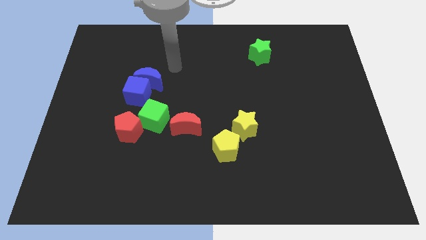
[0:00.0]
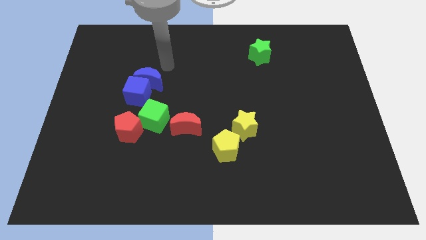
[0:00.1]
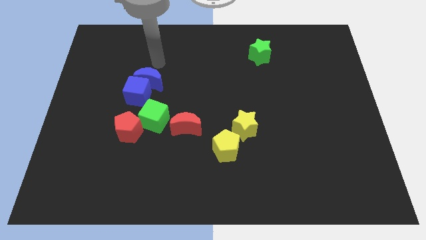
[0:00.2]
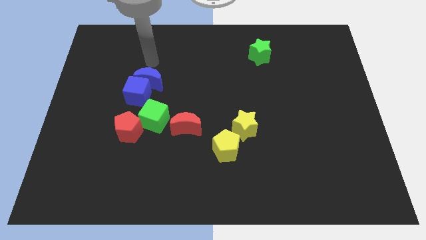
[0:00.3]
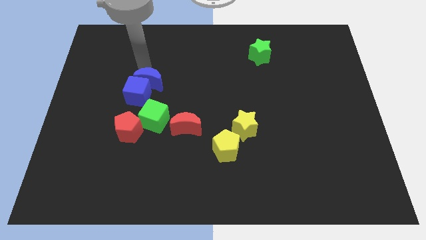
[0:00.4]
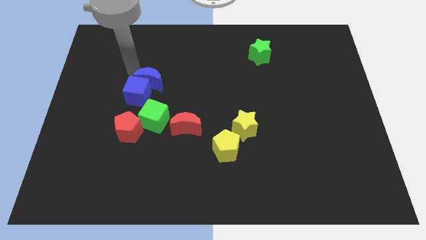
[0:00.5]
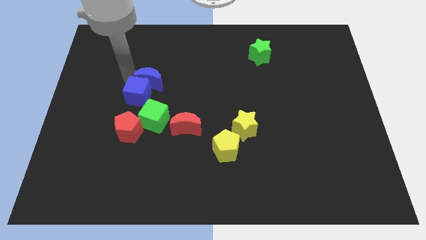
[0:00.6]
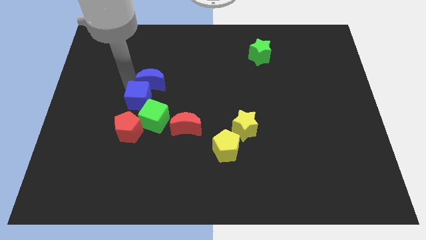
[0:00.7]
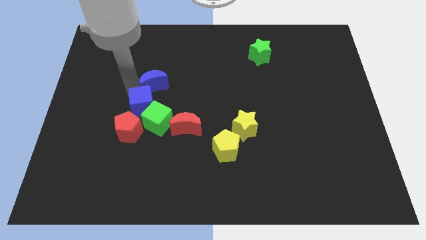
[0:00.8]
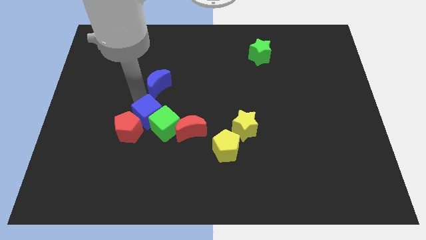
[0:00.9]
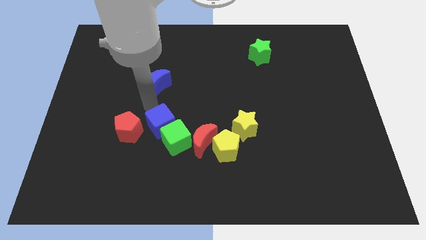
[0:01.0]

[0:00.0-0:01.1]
pull the blue moon apart from the blue cube

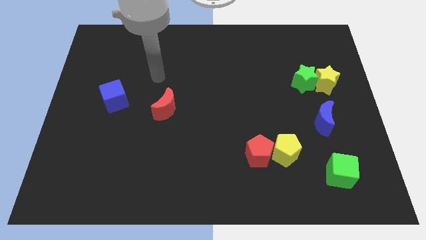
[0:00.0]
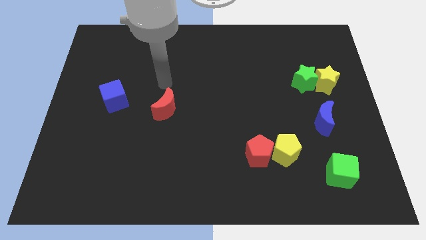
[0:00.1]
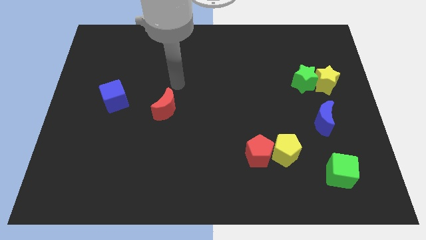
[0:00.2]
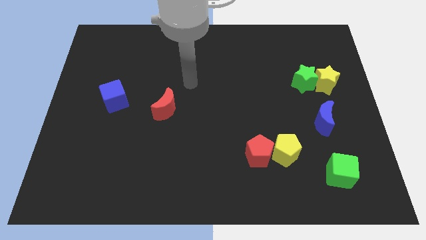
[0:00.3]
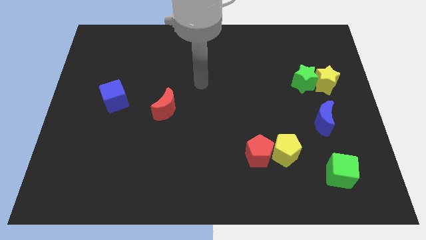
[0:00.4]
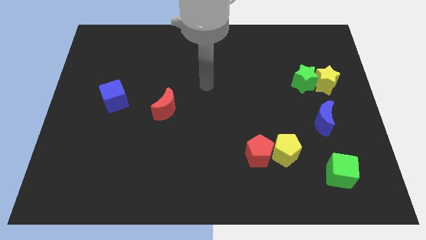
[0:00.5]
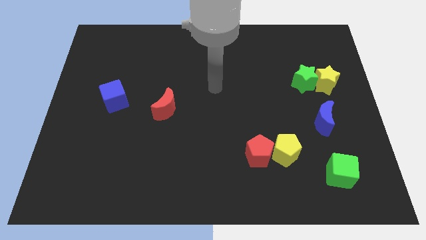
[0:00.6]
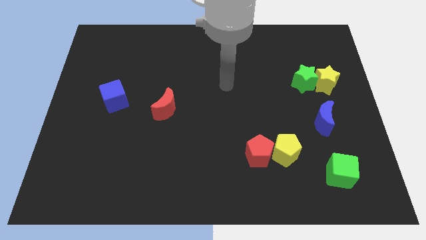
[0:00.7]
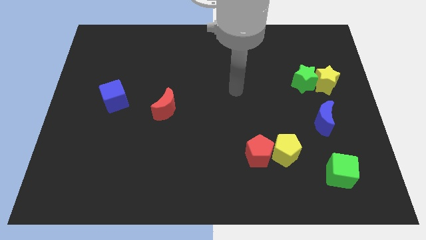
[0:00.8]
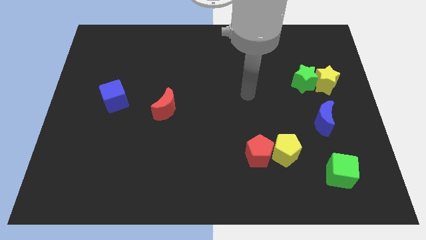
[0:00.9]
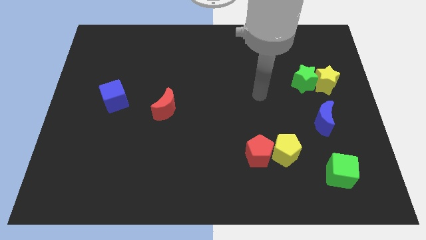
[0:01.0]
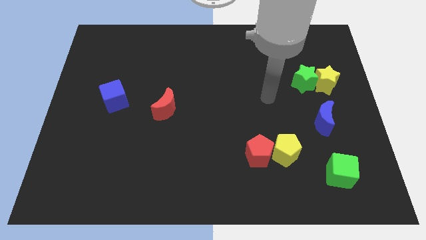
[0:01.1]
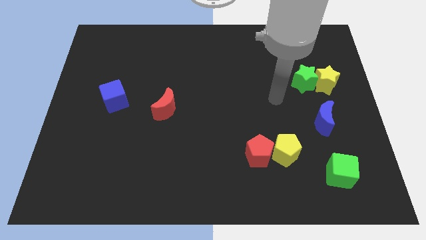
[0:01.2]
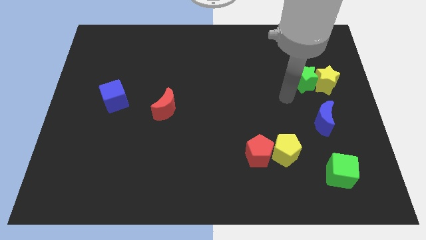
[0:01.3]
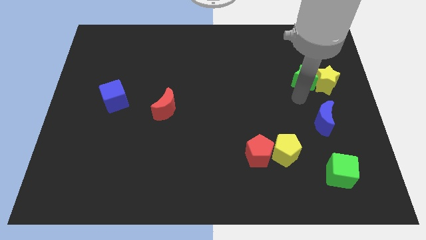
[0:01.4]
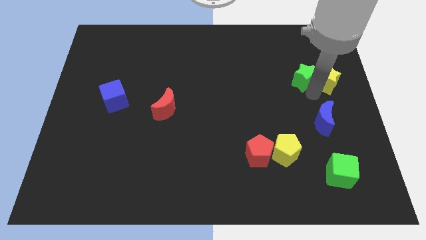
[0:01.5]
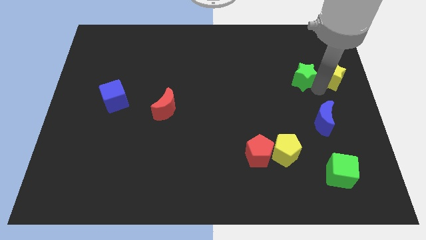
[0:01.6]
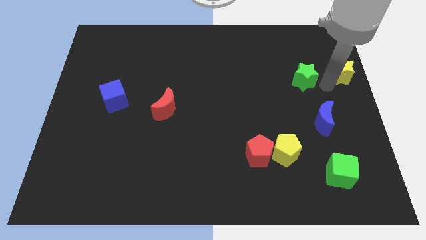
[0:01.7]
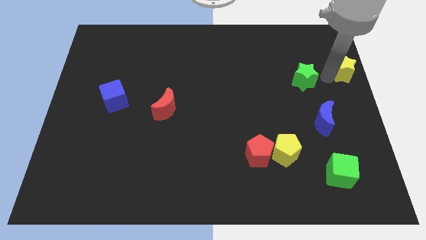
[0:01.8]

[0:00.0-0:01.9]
separate the green star from the yellow star

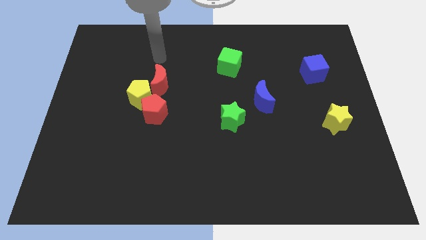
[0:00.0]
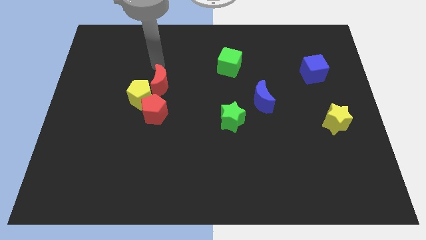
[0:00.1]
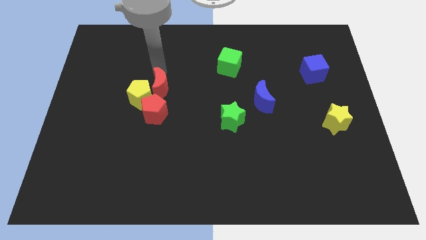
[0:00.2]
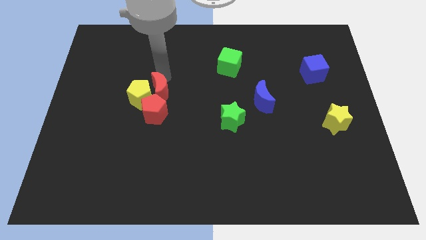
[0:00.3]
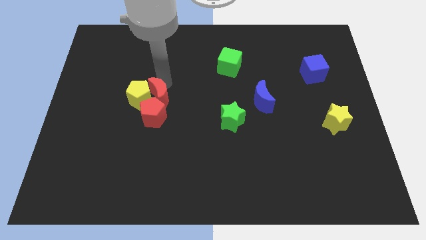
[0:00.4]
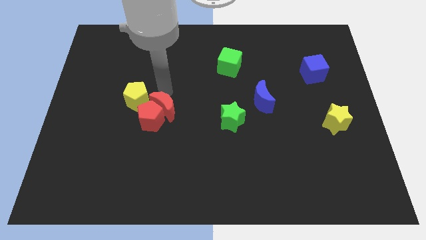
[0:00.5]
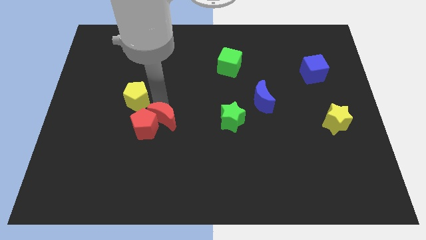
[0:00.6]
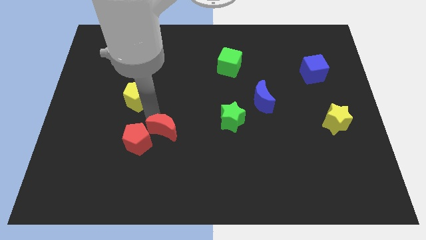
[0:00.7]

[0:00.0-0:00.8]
move the yellow pentagon away from the red pentagon and red moon

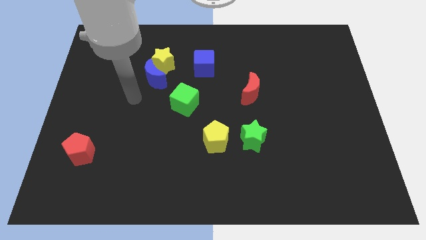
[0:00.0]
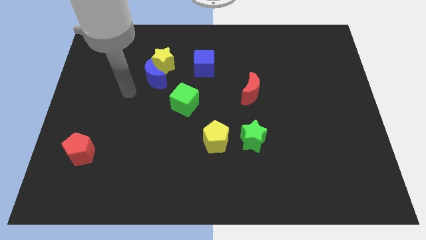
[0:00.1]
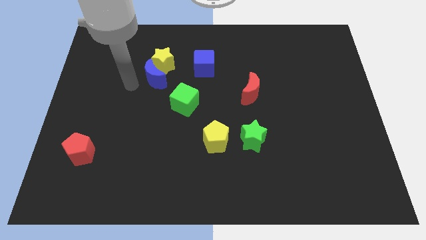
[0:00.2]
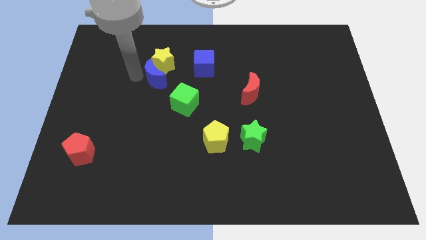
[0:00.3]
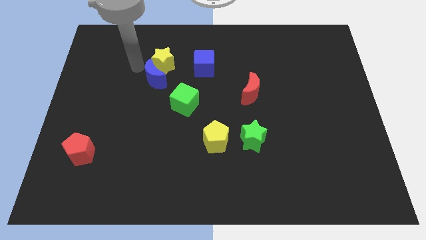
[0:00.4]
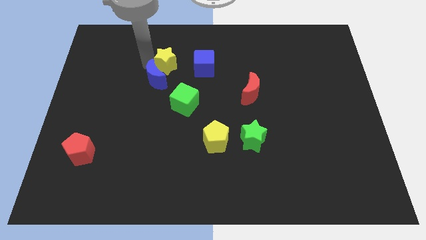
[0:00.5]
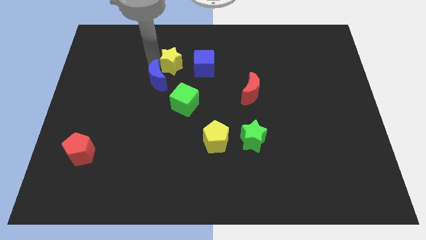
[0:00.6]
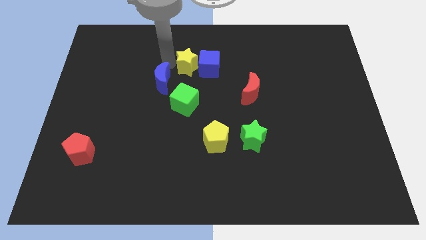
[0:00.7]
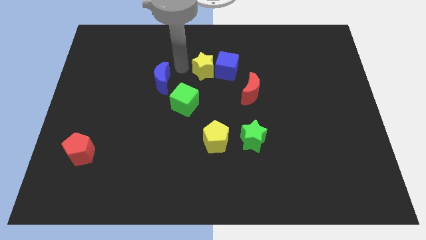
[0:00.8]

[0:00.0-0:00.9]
pull the blue moon apart from the yellow star

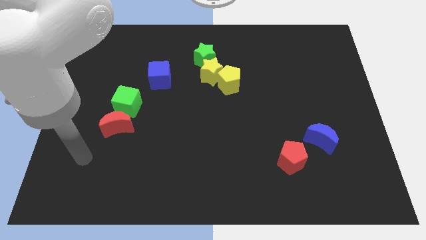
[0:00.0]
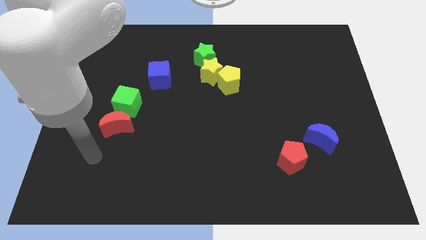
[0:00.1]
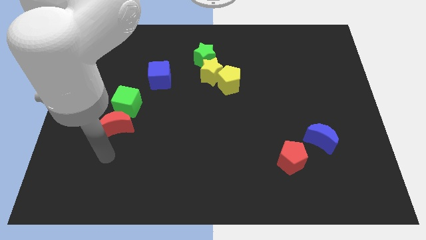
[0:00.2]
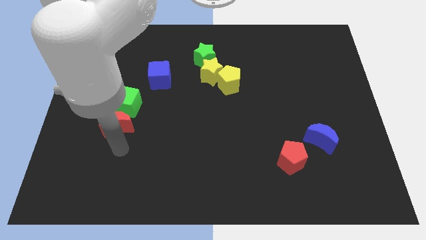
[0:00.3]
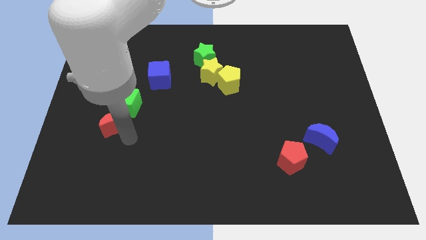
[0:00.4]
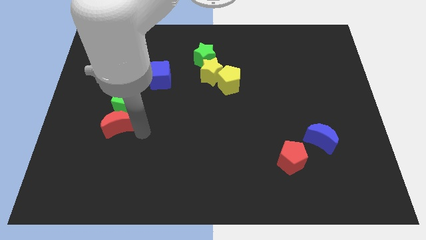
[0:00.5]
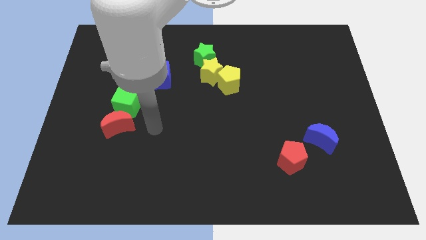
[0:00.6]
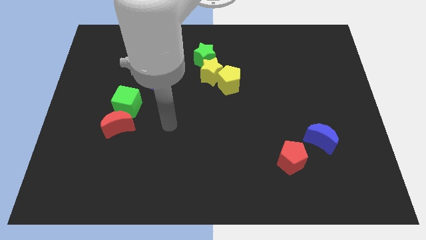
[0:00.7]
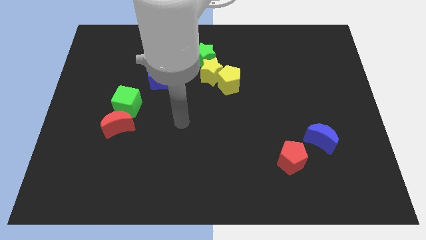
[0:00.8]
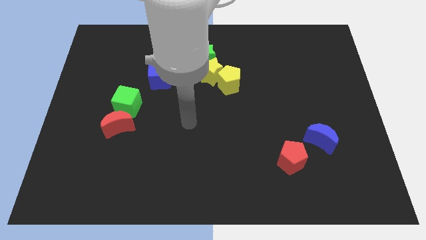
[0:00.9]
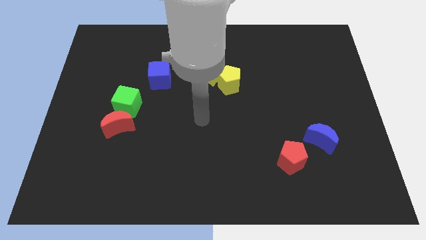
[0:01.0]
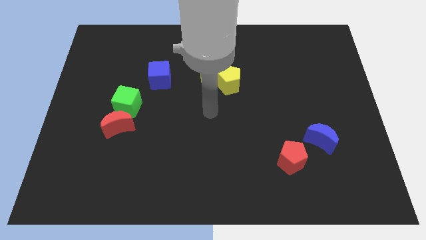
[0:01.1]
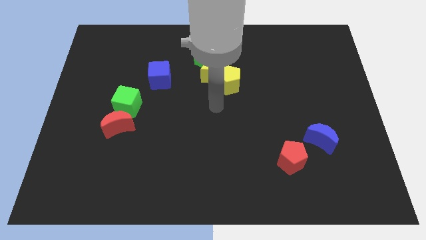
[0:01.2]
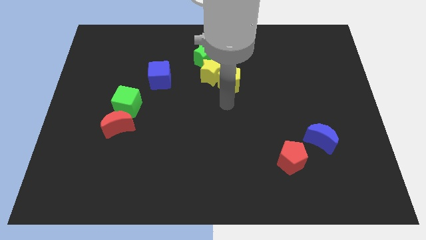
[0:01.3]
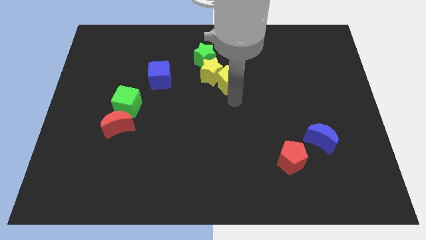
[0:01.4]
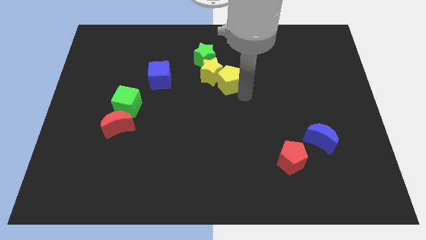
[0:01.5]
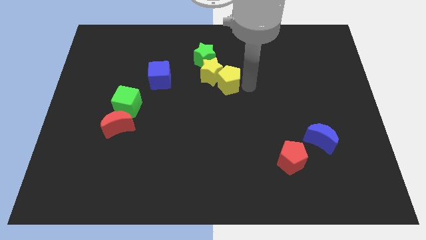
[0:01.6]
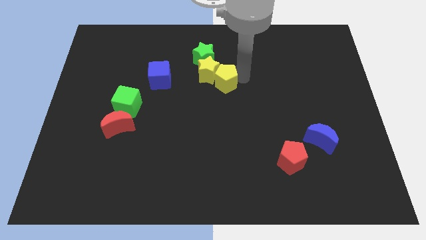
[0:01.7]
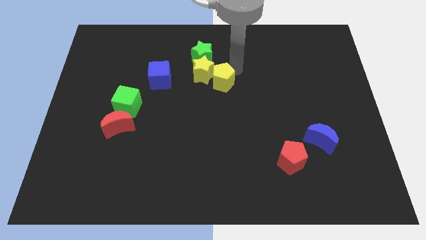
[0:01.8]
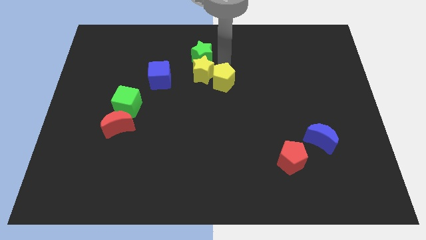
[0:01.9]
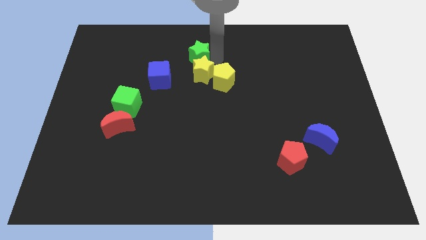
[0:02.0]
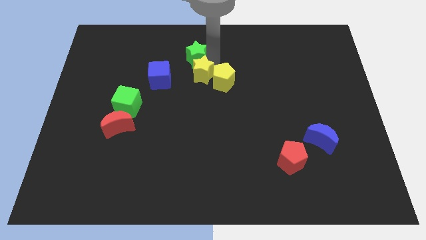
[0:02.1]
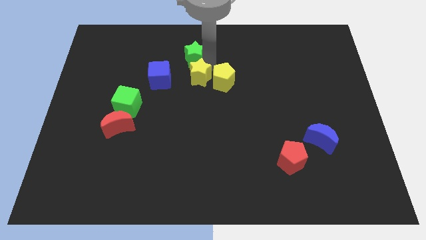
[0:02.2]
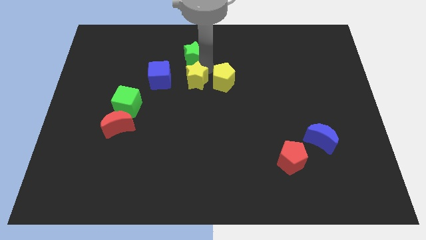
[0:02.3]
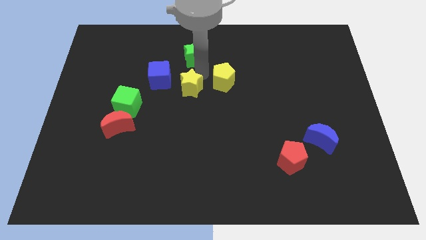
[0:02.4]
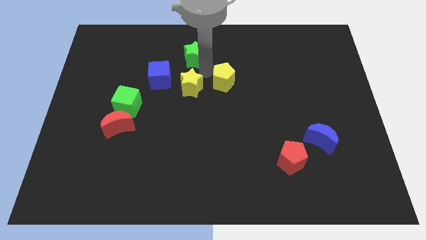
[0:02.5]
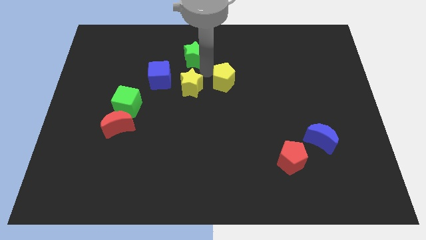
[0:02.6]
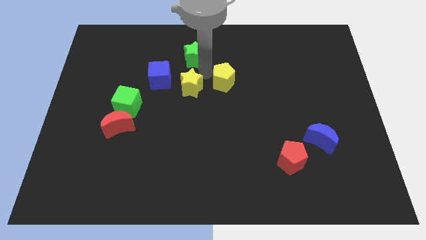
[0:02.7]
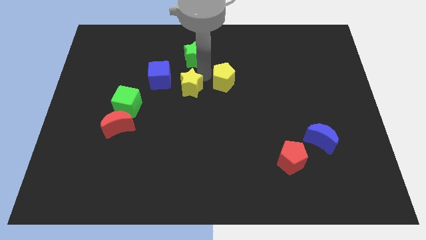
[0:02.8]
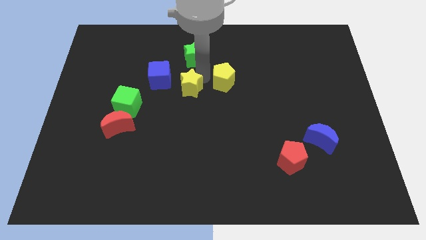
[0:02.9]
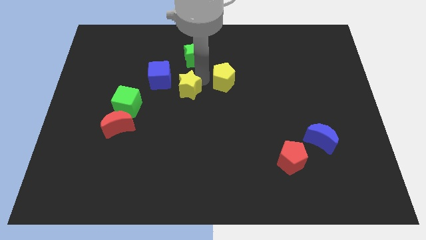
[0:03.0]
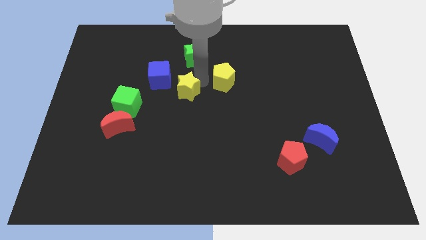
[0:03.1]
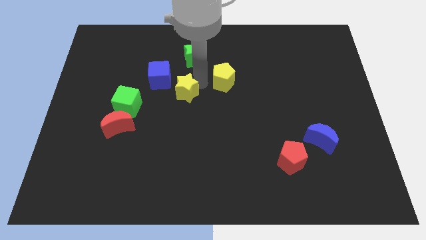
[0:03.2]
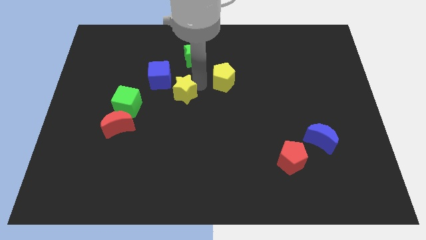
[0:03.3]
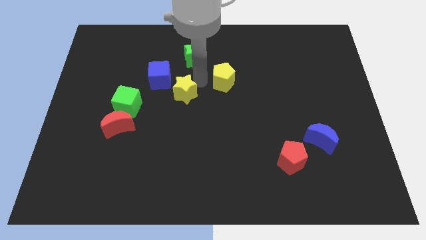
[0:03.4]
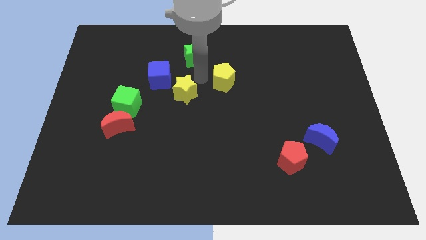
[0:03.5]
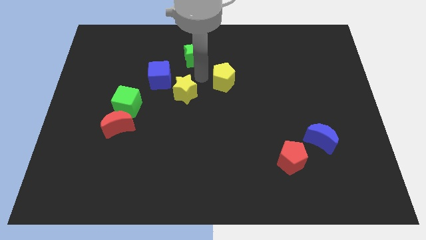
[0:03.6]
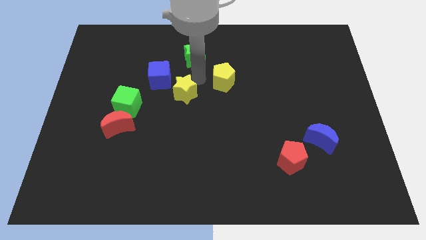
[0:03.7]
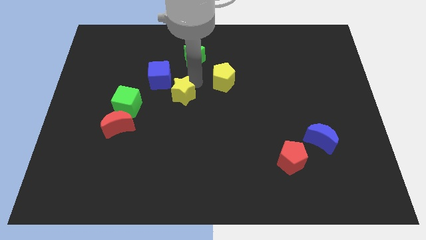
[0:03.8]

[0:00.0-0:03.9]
separate the yellow star from the yellow pentagon and green star

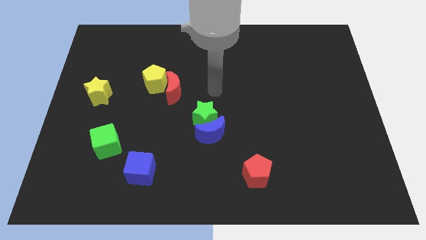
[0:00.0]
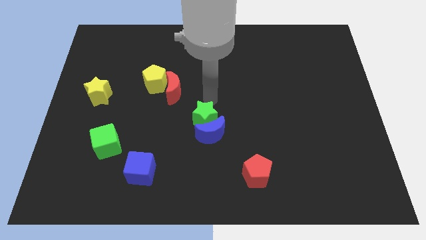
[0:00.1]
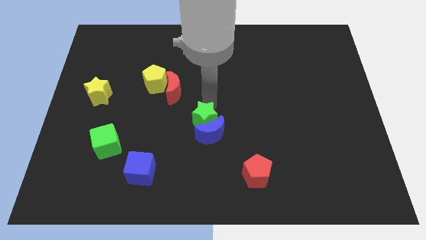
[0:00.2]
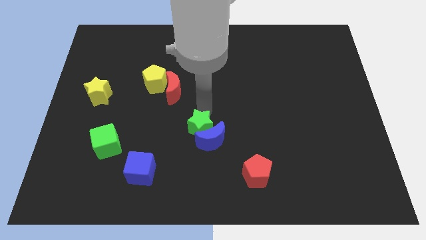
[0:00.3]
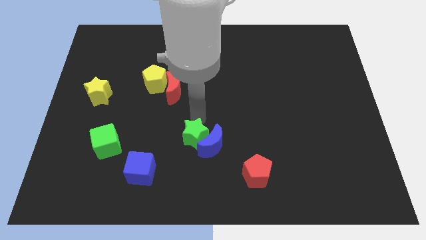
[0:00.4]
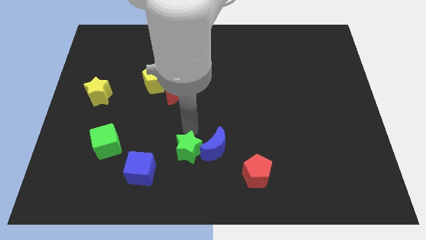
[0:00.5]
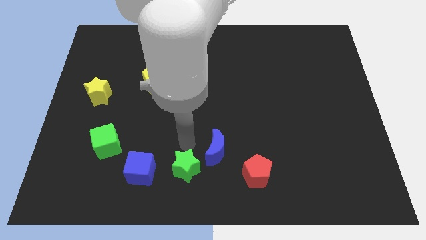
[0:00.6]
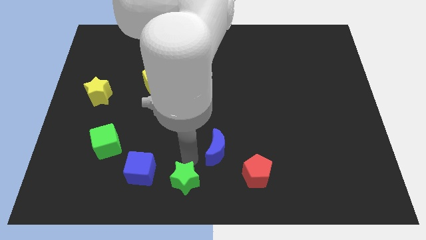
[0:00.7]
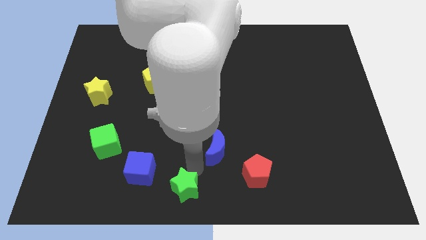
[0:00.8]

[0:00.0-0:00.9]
separate the blue moon from the green star
